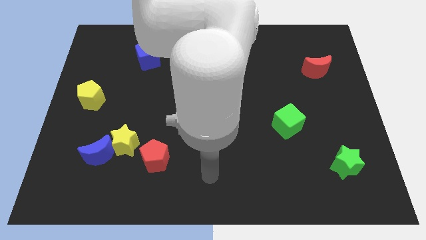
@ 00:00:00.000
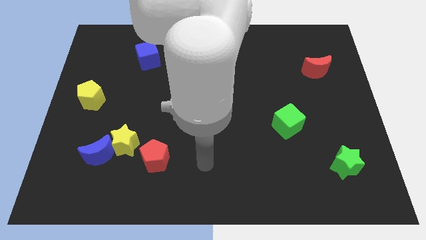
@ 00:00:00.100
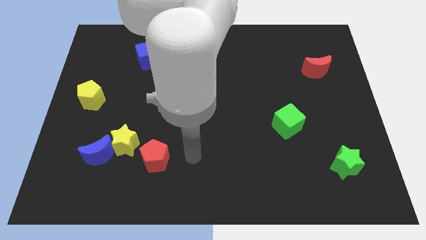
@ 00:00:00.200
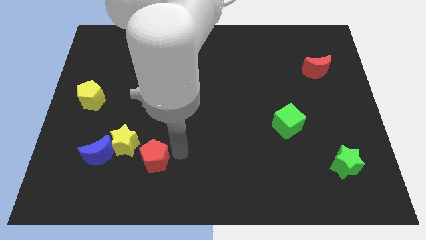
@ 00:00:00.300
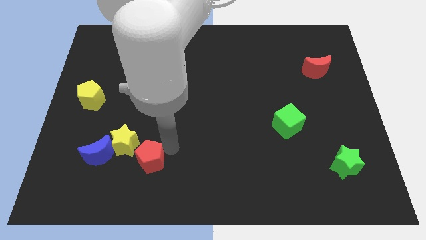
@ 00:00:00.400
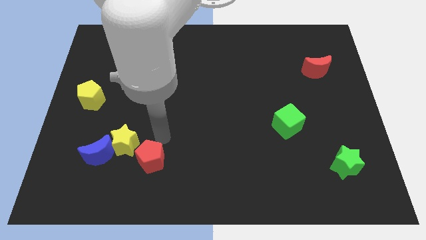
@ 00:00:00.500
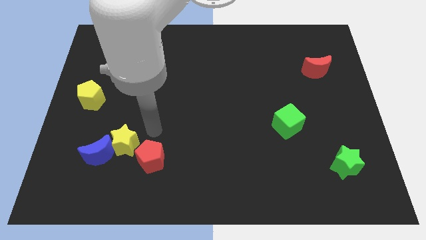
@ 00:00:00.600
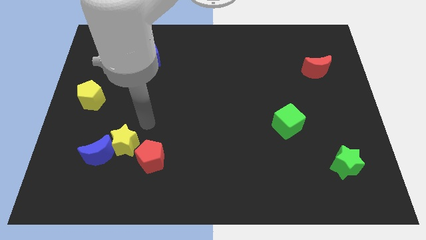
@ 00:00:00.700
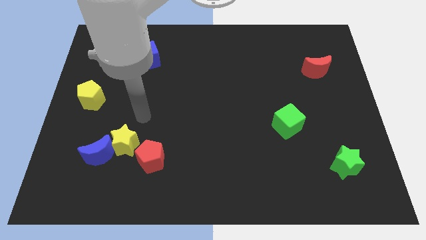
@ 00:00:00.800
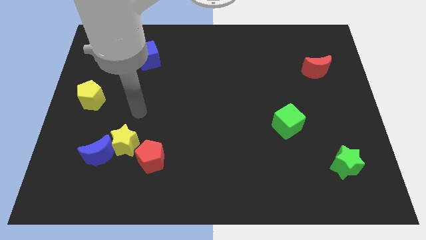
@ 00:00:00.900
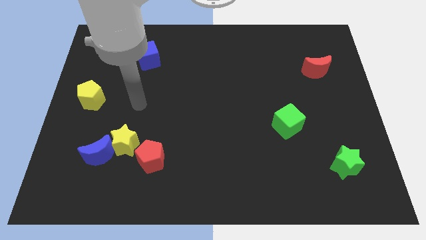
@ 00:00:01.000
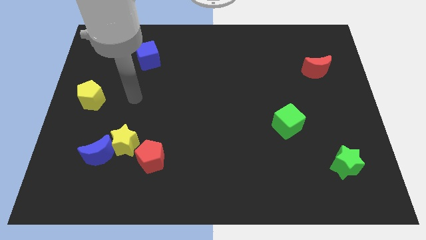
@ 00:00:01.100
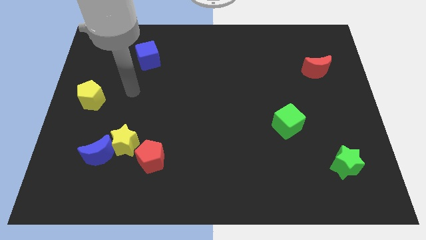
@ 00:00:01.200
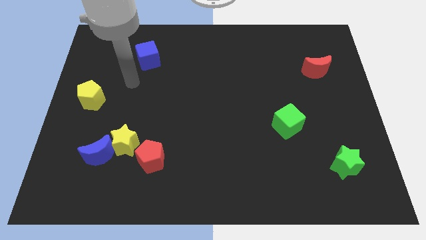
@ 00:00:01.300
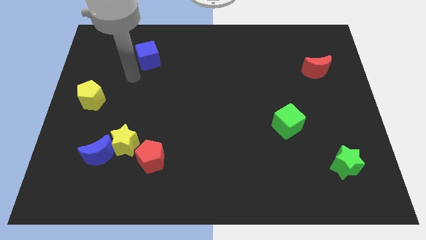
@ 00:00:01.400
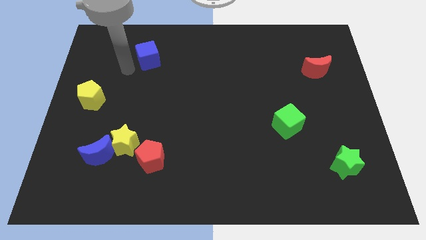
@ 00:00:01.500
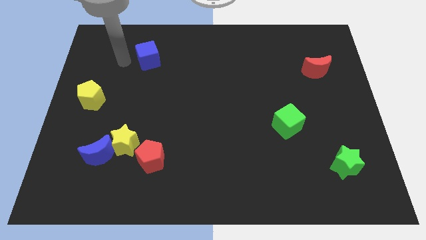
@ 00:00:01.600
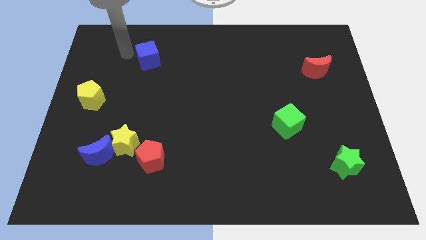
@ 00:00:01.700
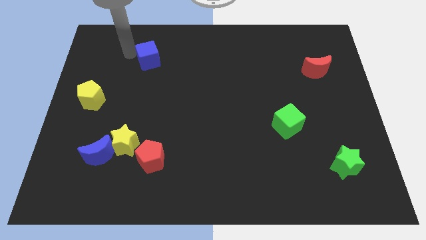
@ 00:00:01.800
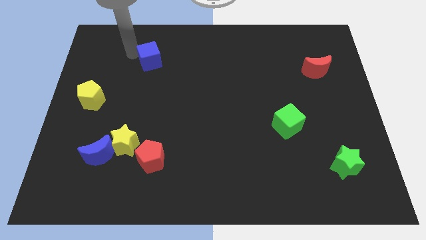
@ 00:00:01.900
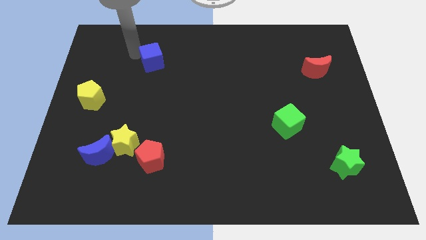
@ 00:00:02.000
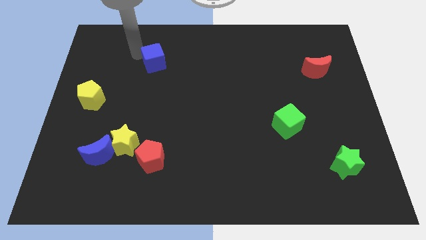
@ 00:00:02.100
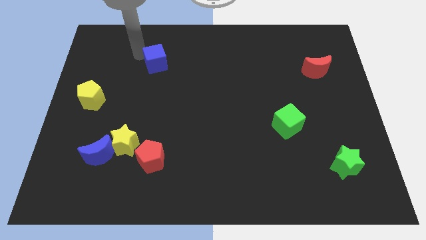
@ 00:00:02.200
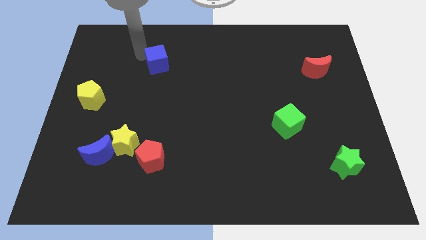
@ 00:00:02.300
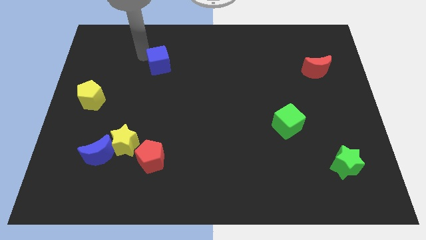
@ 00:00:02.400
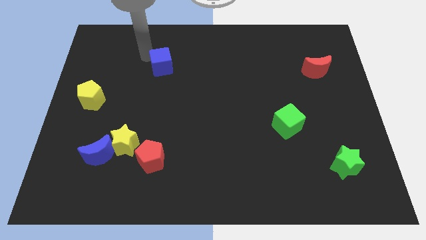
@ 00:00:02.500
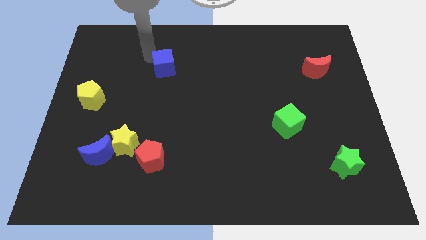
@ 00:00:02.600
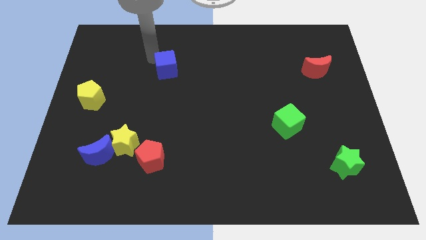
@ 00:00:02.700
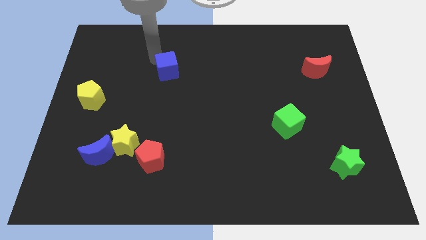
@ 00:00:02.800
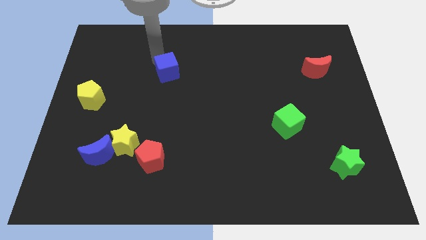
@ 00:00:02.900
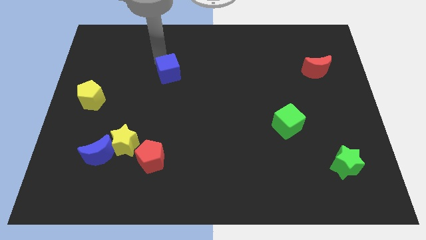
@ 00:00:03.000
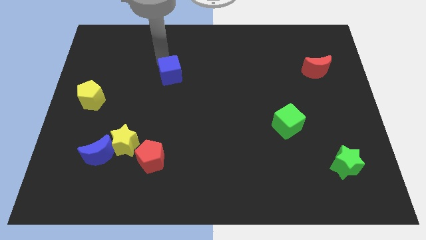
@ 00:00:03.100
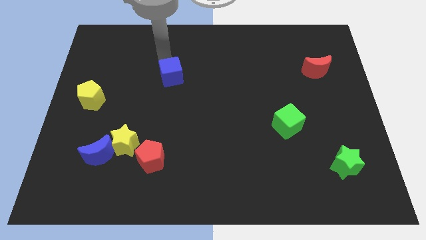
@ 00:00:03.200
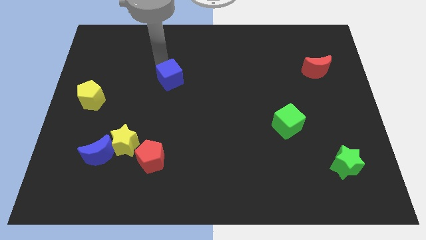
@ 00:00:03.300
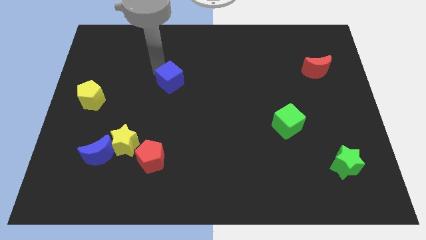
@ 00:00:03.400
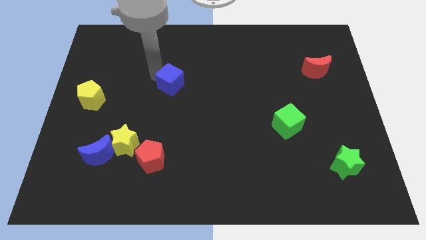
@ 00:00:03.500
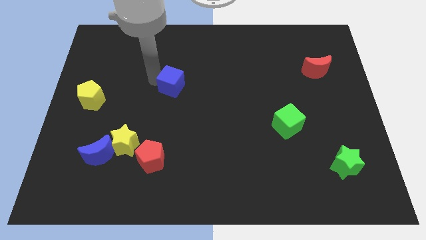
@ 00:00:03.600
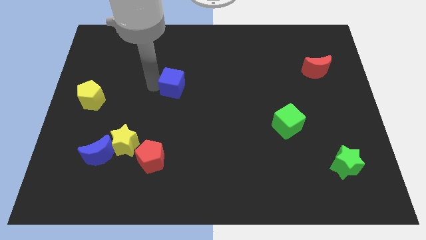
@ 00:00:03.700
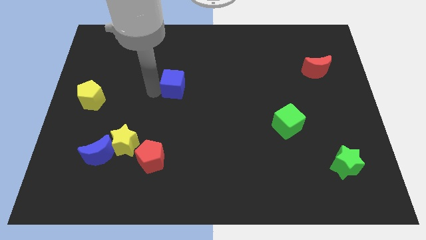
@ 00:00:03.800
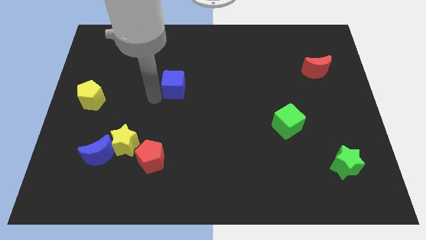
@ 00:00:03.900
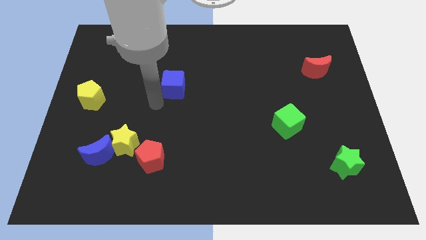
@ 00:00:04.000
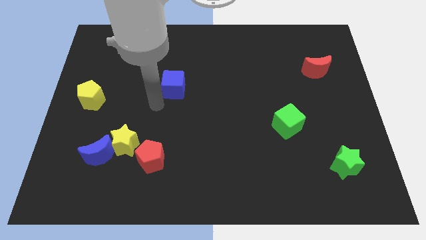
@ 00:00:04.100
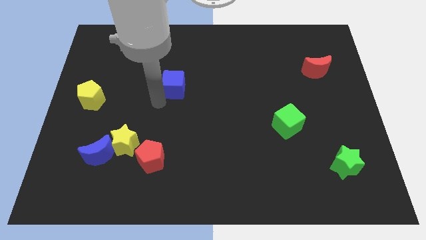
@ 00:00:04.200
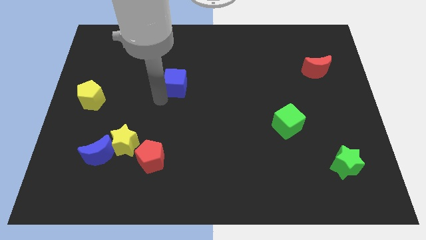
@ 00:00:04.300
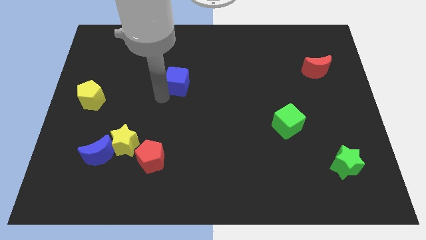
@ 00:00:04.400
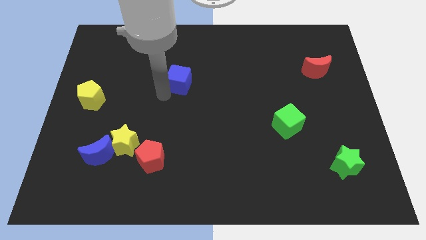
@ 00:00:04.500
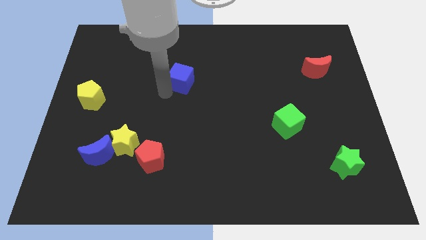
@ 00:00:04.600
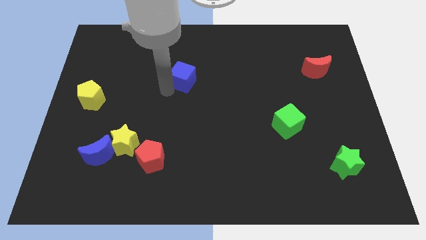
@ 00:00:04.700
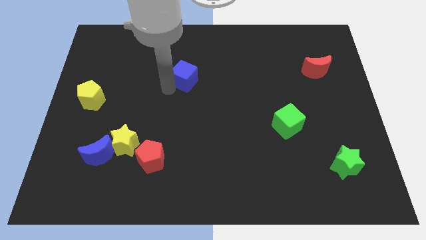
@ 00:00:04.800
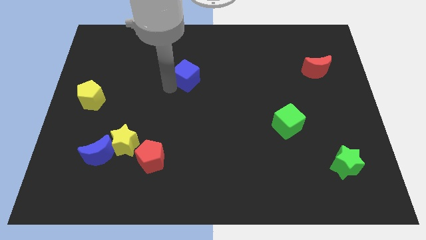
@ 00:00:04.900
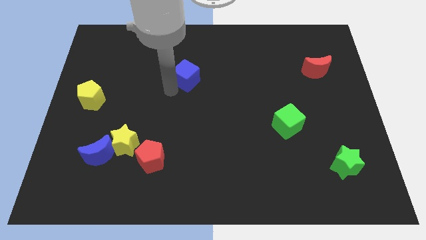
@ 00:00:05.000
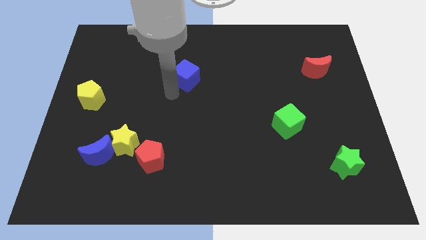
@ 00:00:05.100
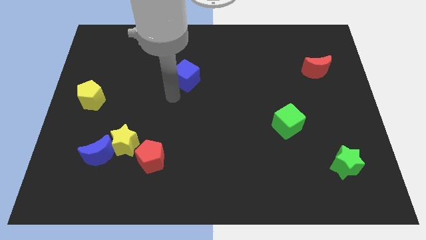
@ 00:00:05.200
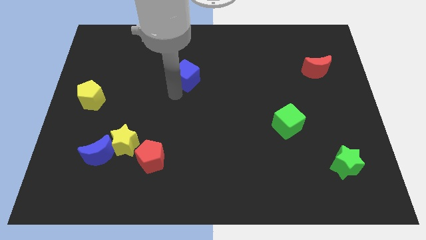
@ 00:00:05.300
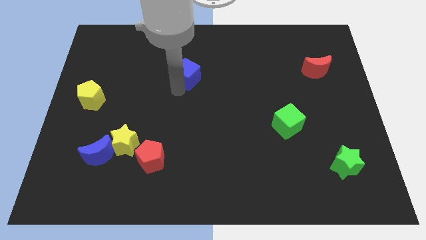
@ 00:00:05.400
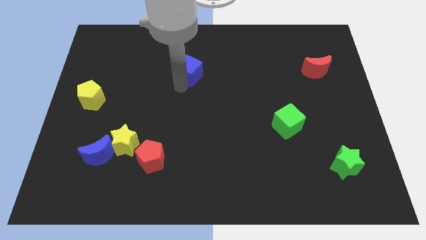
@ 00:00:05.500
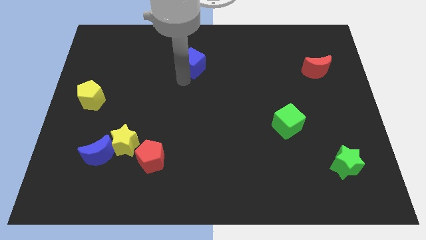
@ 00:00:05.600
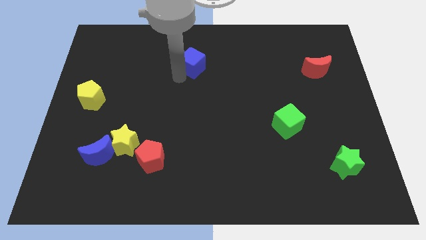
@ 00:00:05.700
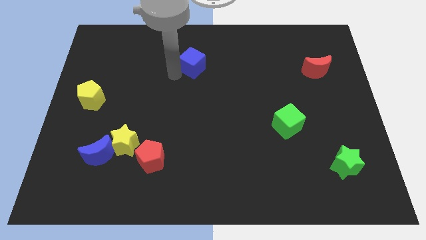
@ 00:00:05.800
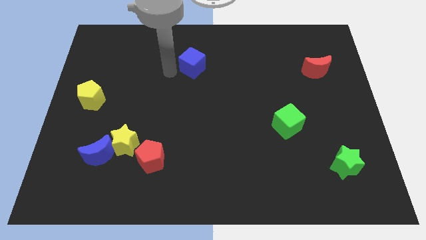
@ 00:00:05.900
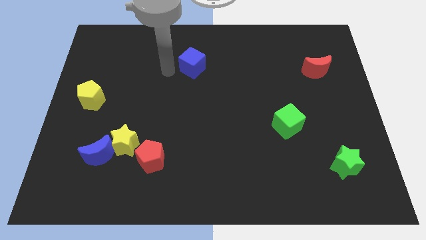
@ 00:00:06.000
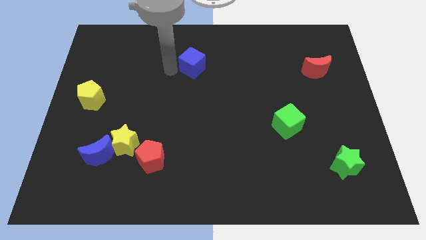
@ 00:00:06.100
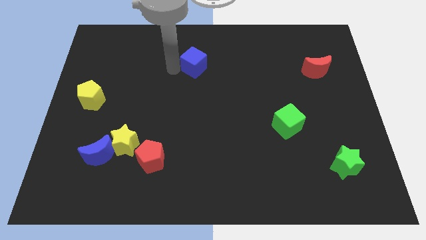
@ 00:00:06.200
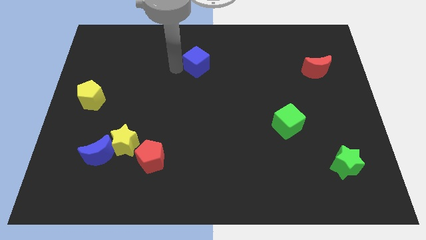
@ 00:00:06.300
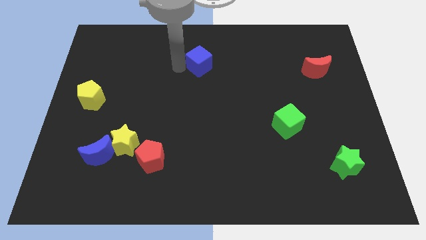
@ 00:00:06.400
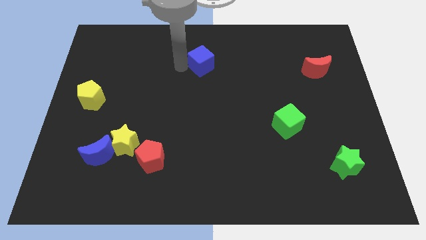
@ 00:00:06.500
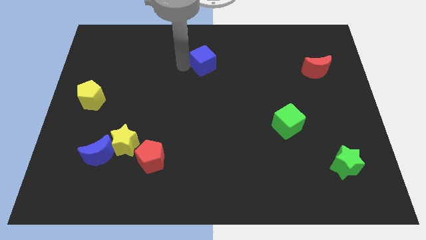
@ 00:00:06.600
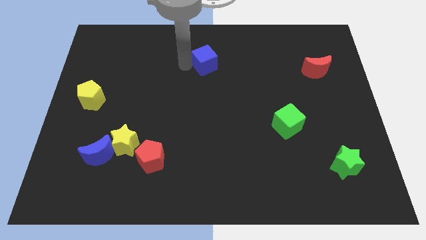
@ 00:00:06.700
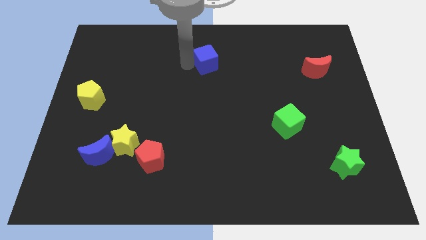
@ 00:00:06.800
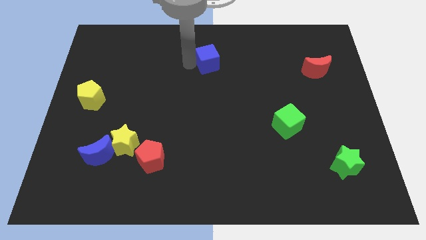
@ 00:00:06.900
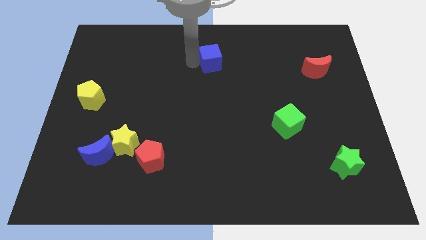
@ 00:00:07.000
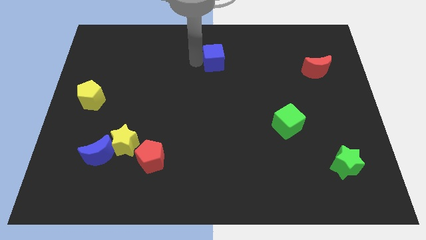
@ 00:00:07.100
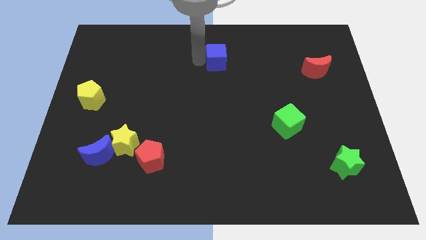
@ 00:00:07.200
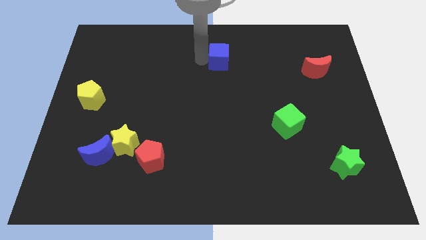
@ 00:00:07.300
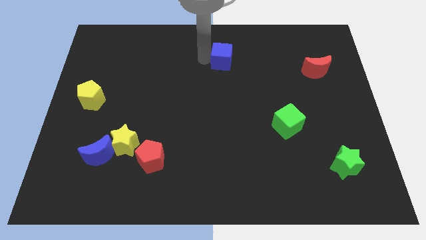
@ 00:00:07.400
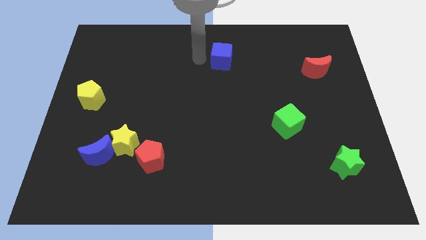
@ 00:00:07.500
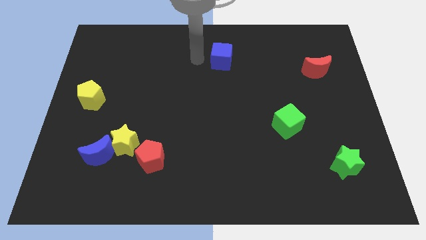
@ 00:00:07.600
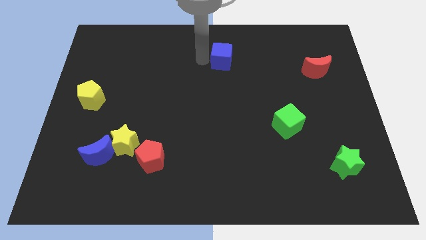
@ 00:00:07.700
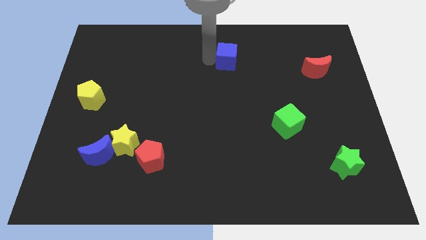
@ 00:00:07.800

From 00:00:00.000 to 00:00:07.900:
push the blue cube right
